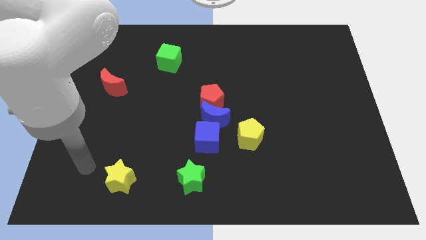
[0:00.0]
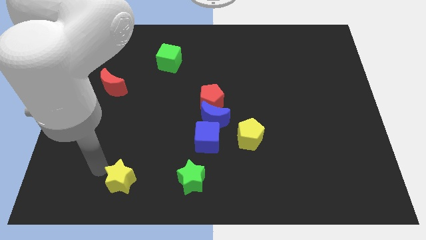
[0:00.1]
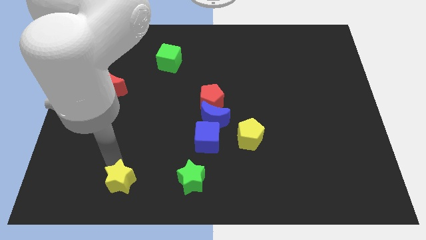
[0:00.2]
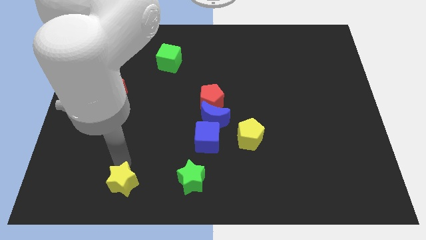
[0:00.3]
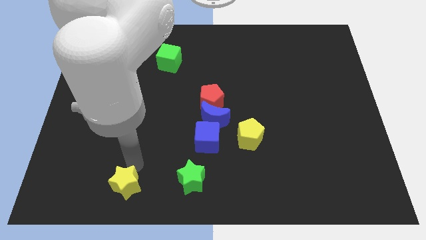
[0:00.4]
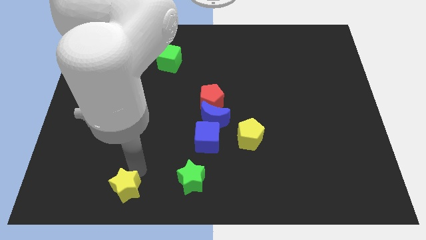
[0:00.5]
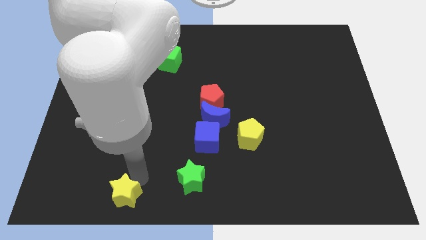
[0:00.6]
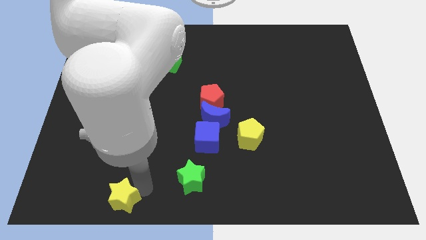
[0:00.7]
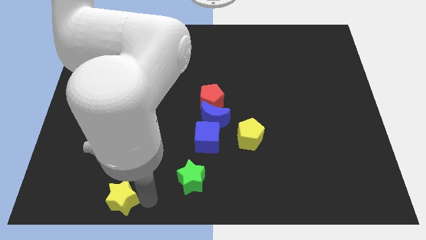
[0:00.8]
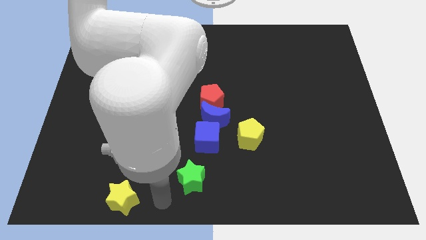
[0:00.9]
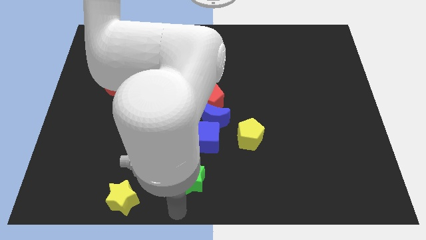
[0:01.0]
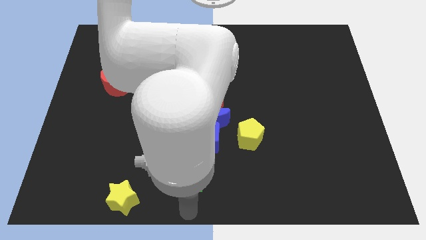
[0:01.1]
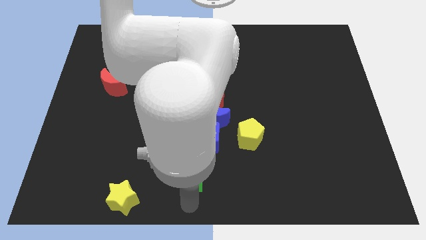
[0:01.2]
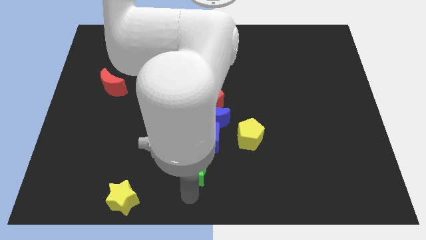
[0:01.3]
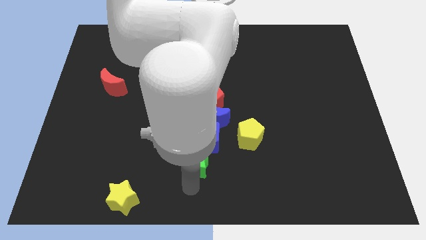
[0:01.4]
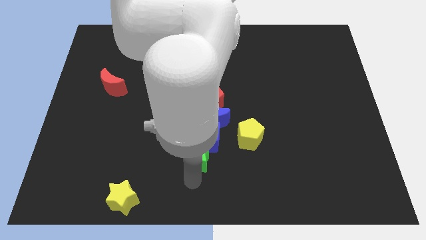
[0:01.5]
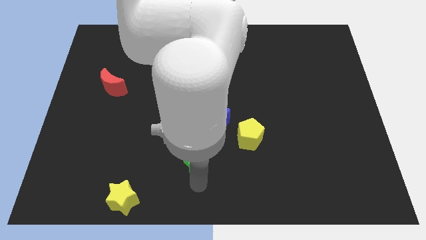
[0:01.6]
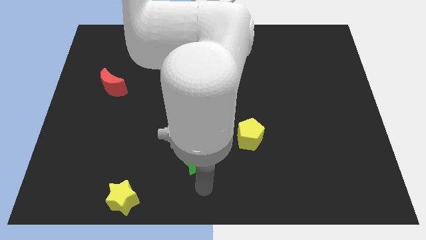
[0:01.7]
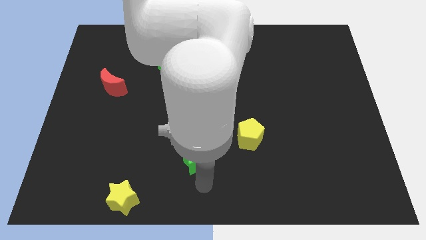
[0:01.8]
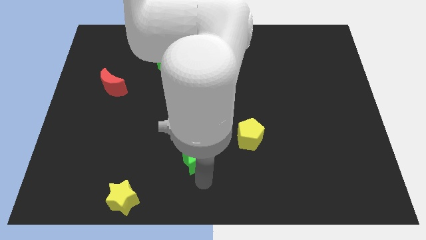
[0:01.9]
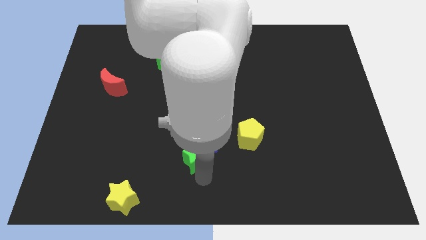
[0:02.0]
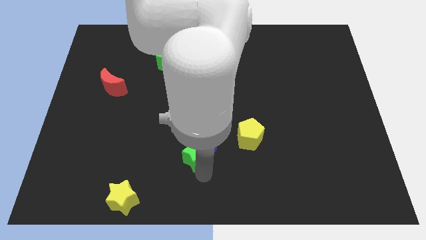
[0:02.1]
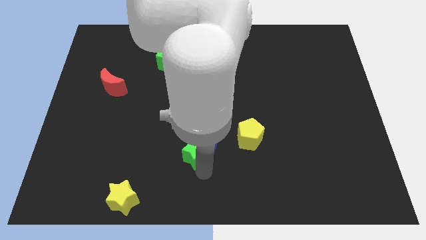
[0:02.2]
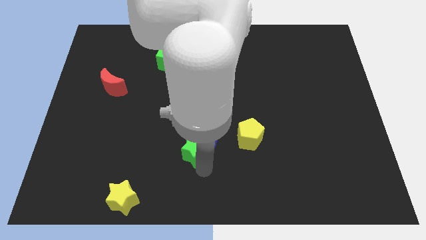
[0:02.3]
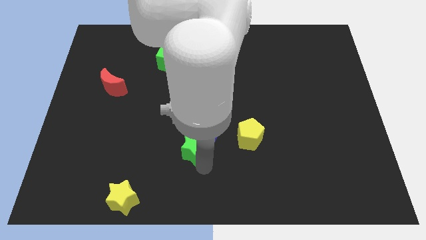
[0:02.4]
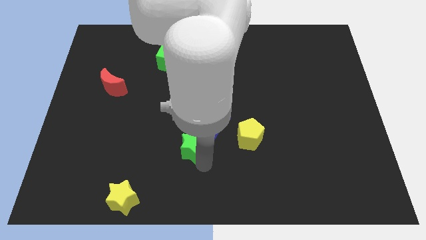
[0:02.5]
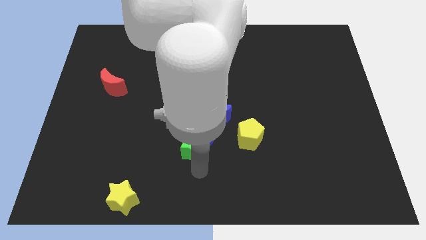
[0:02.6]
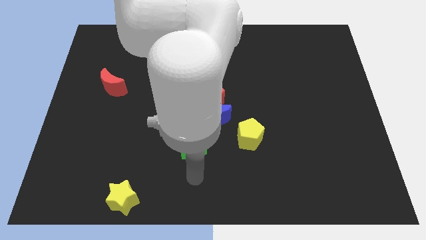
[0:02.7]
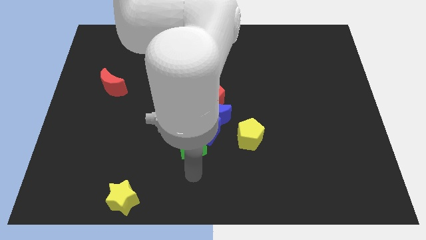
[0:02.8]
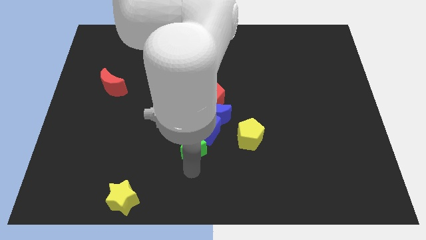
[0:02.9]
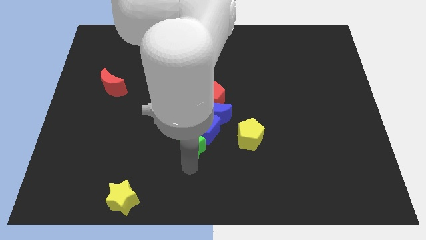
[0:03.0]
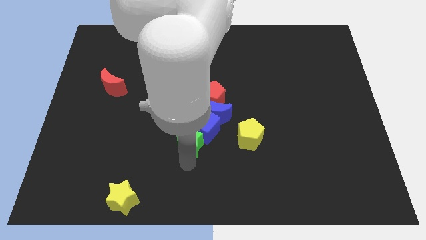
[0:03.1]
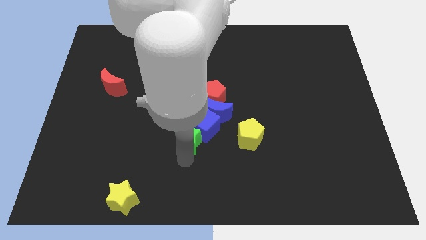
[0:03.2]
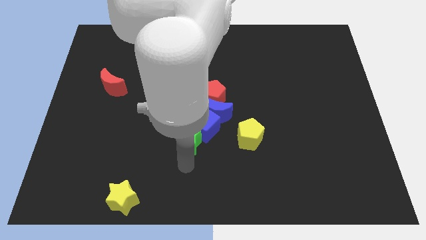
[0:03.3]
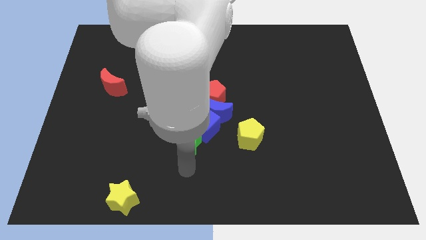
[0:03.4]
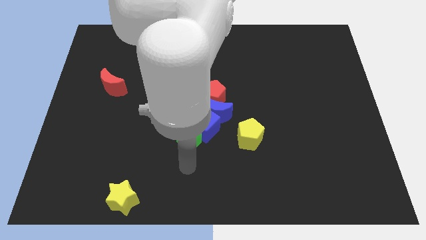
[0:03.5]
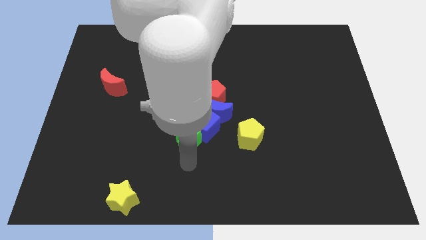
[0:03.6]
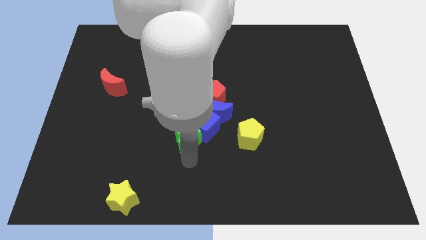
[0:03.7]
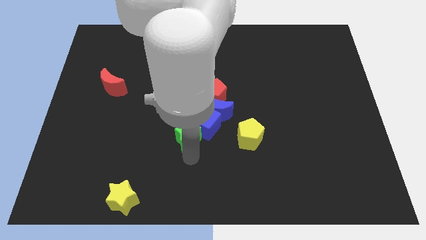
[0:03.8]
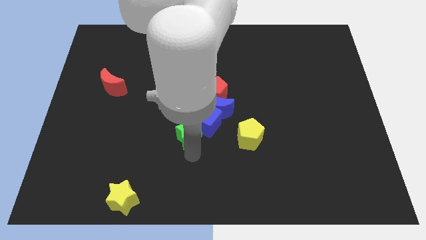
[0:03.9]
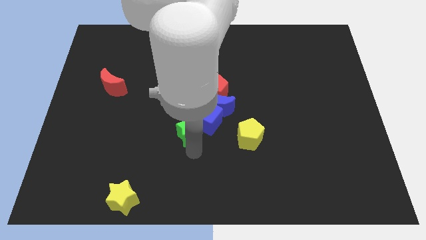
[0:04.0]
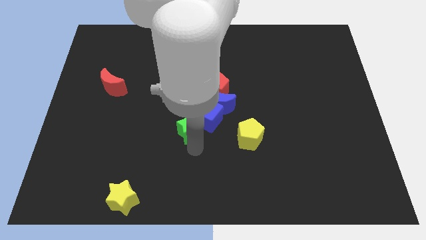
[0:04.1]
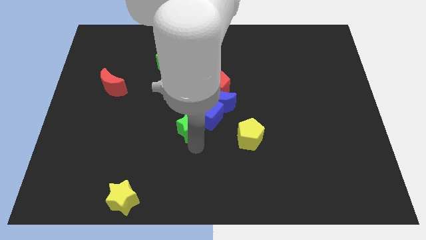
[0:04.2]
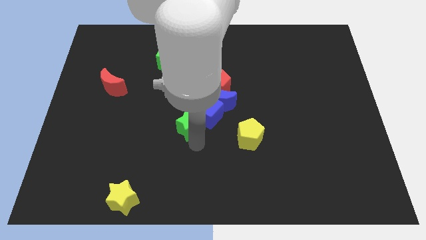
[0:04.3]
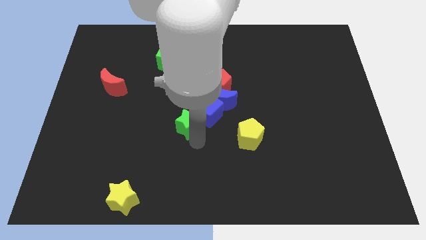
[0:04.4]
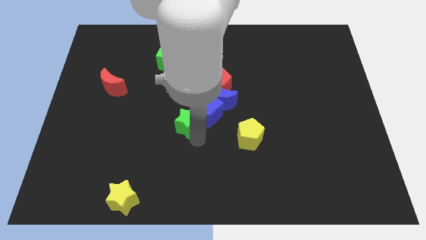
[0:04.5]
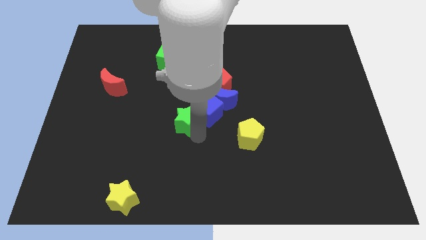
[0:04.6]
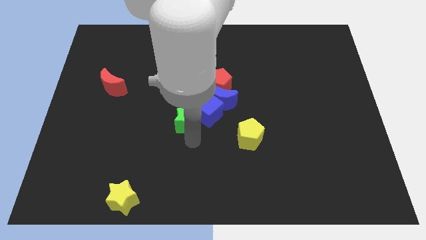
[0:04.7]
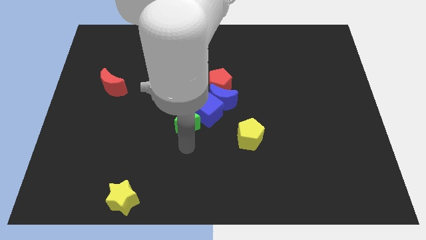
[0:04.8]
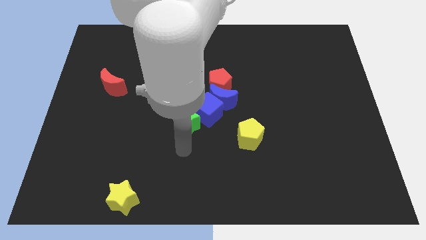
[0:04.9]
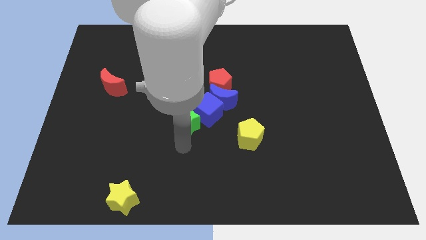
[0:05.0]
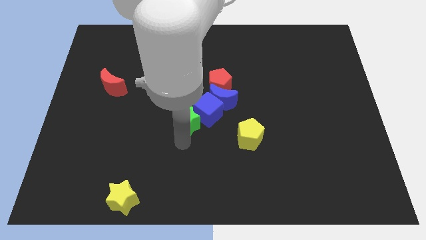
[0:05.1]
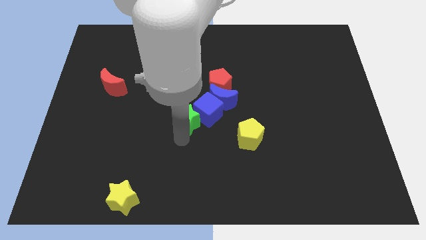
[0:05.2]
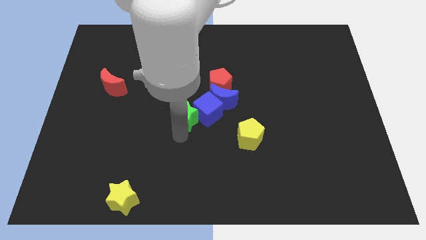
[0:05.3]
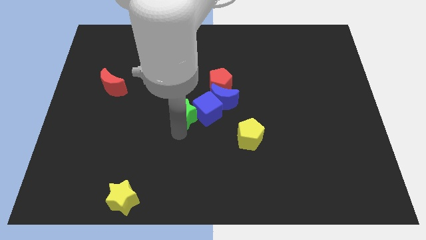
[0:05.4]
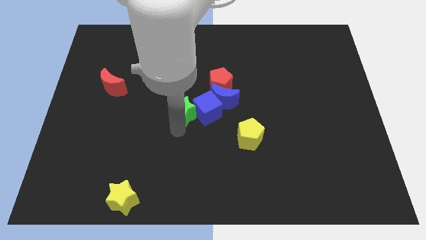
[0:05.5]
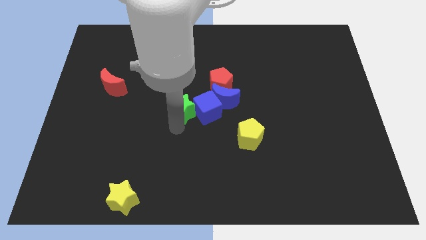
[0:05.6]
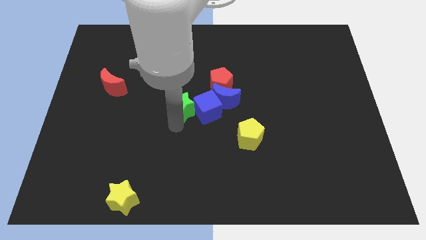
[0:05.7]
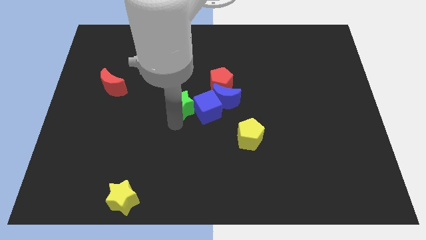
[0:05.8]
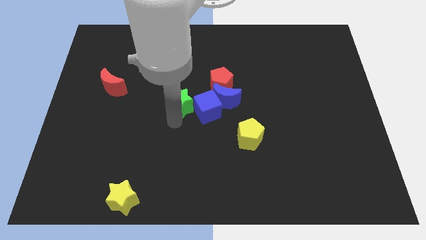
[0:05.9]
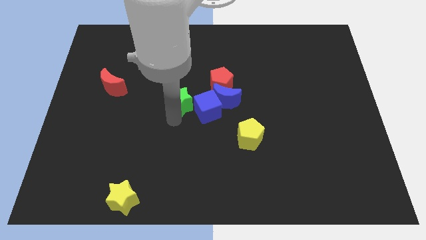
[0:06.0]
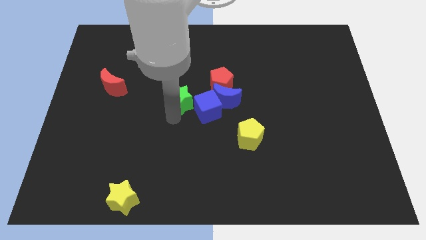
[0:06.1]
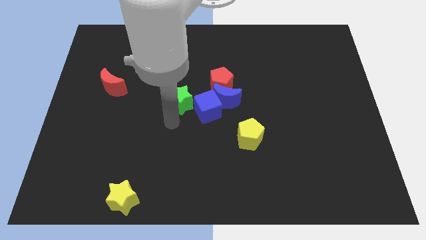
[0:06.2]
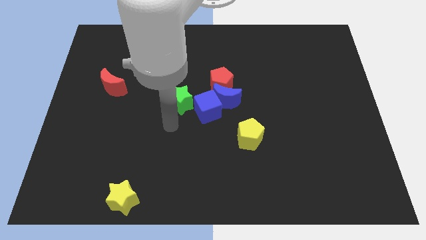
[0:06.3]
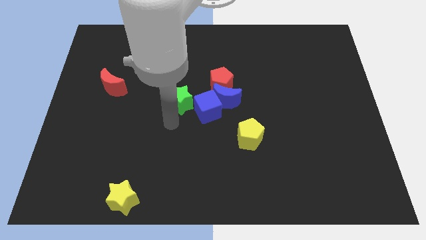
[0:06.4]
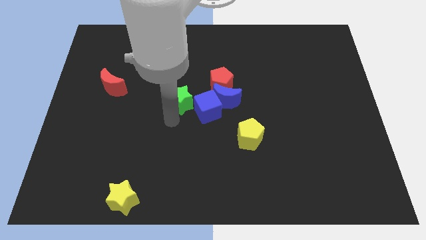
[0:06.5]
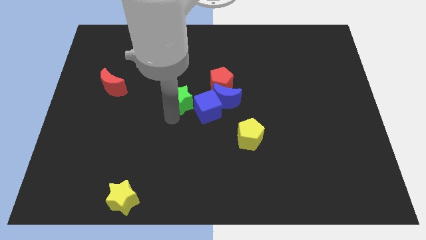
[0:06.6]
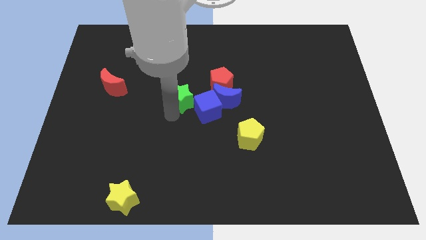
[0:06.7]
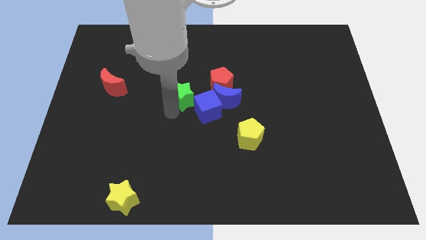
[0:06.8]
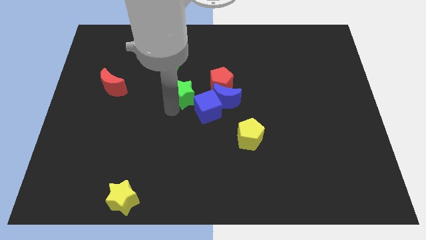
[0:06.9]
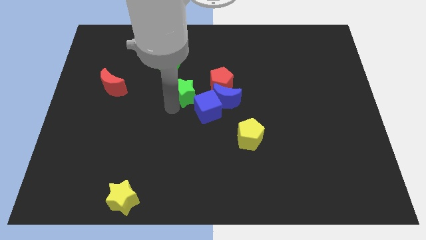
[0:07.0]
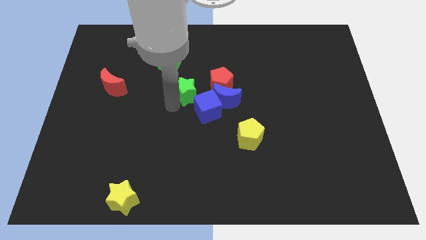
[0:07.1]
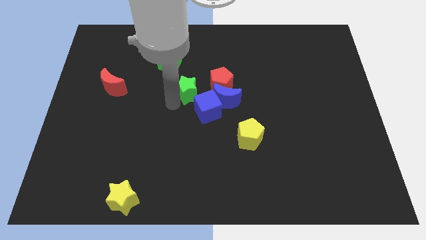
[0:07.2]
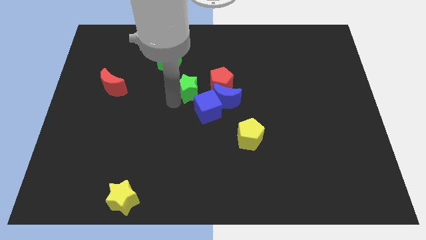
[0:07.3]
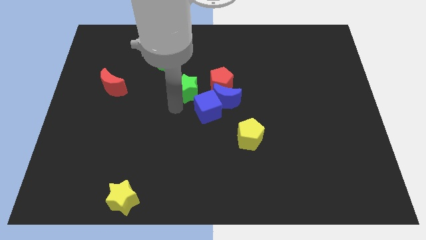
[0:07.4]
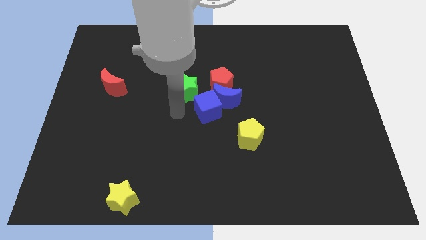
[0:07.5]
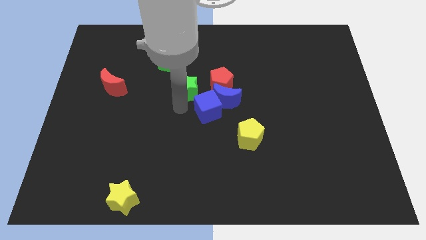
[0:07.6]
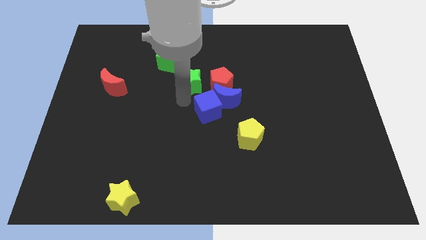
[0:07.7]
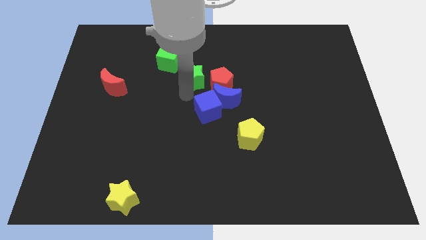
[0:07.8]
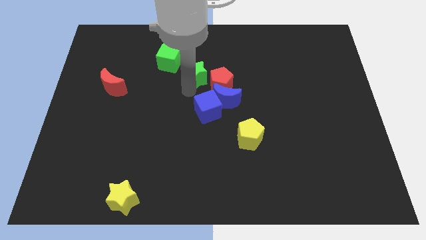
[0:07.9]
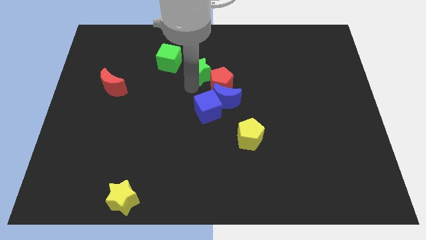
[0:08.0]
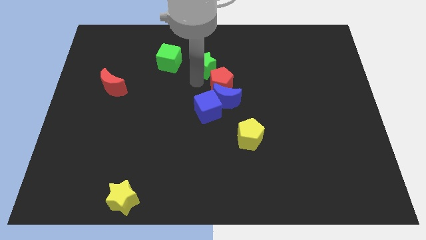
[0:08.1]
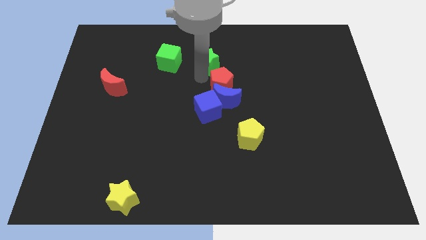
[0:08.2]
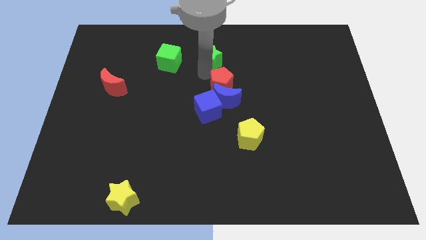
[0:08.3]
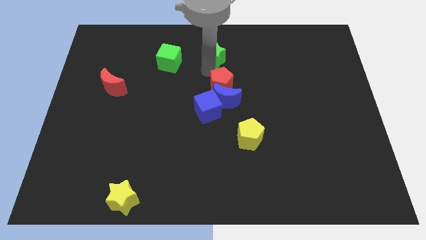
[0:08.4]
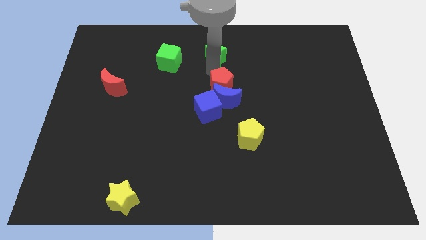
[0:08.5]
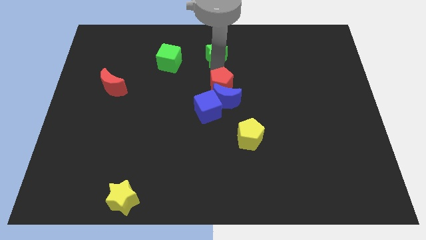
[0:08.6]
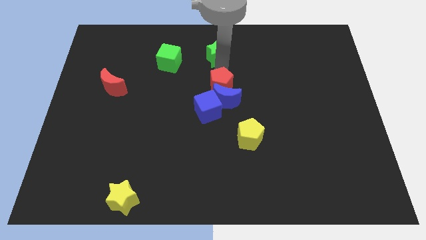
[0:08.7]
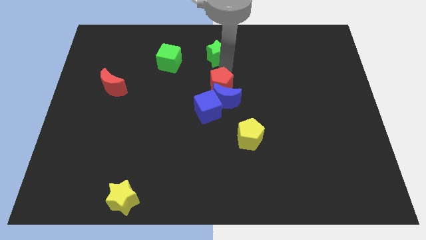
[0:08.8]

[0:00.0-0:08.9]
push the green star to the top
